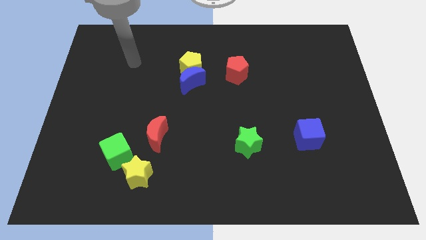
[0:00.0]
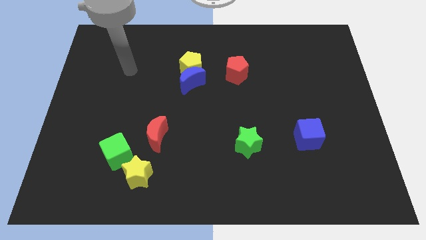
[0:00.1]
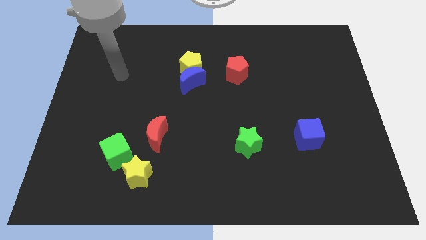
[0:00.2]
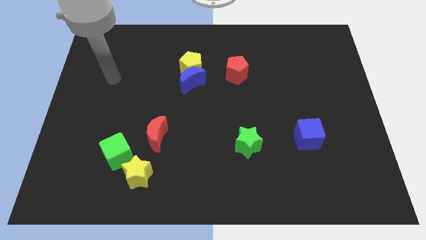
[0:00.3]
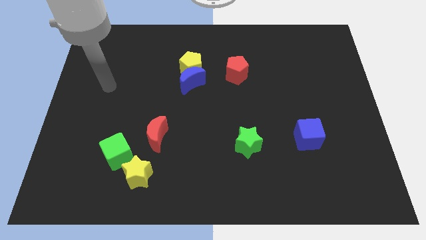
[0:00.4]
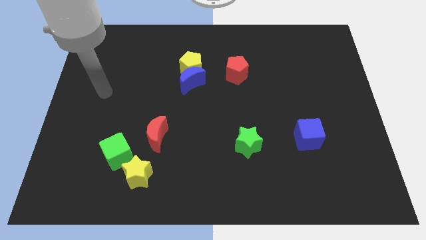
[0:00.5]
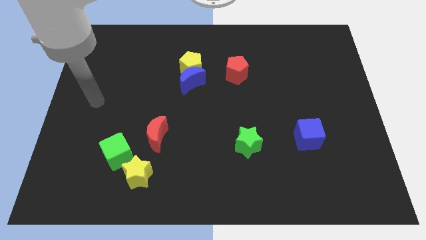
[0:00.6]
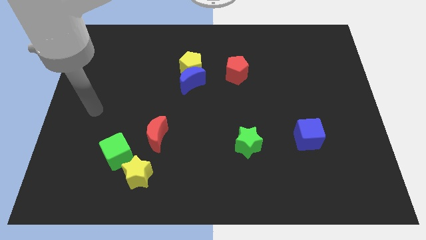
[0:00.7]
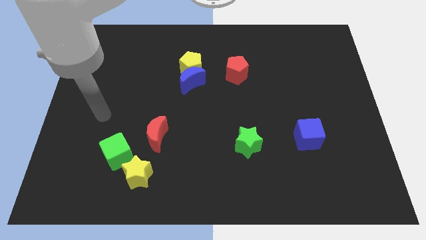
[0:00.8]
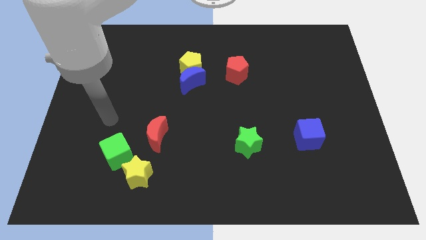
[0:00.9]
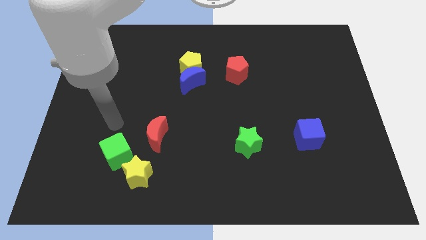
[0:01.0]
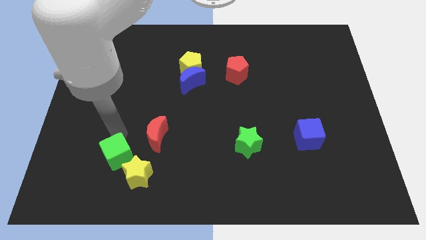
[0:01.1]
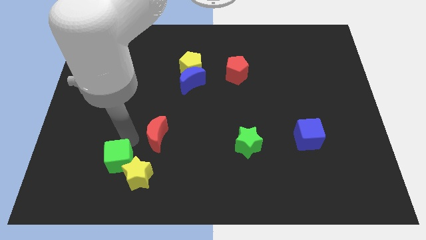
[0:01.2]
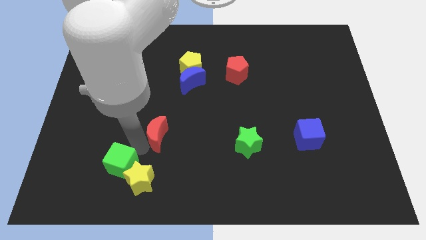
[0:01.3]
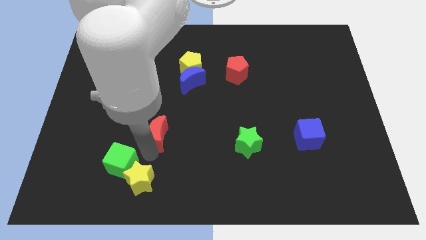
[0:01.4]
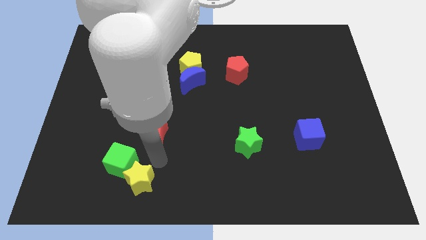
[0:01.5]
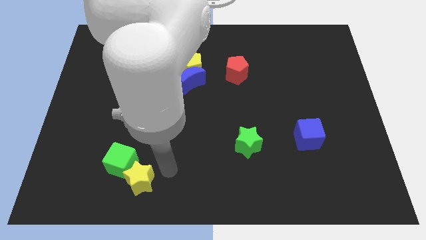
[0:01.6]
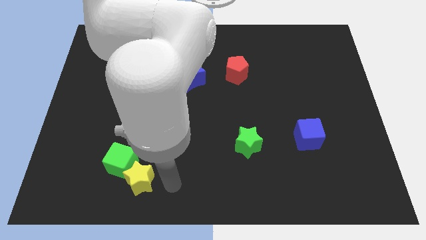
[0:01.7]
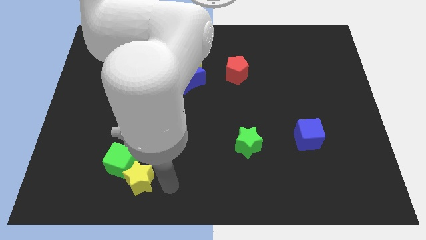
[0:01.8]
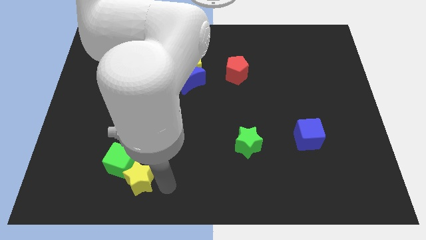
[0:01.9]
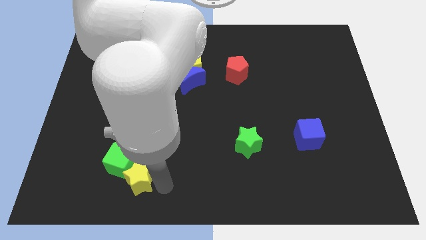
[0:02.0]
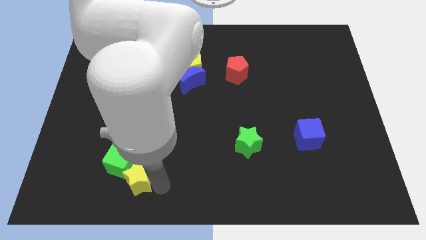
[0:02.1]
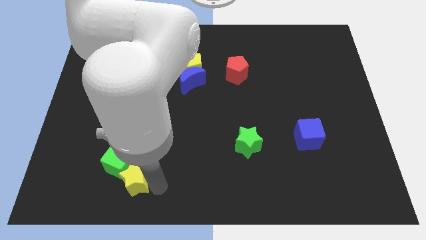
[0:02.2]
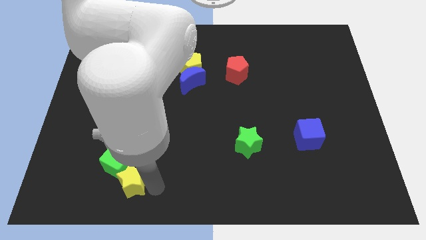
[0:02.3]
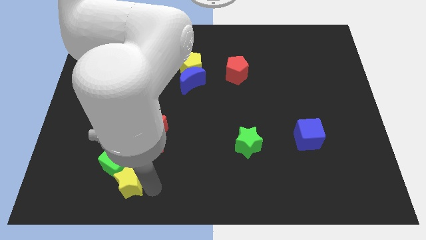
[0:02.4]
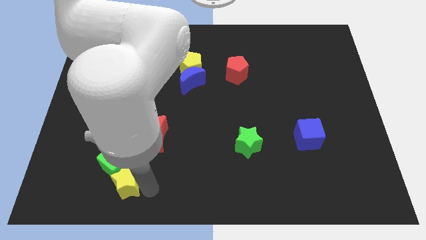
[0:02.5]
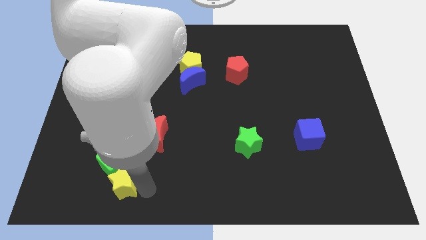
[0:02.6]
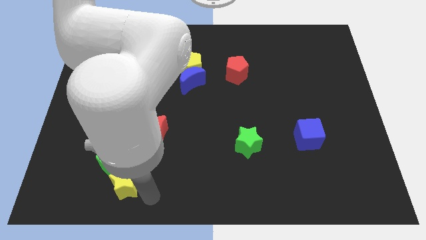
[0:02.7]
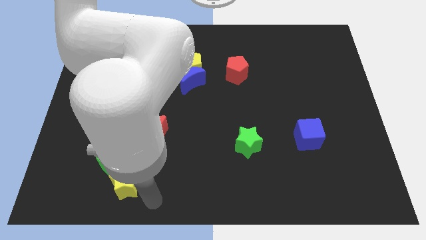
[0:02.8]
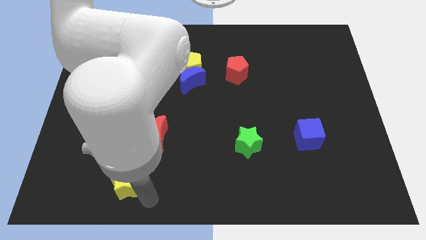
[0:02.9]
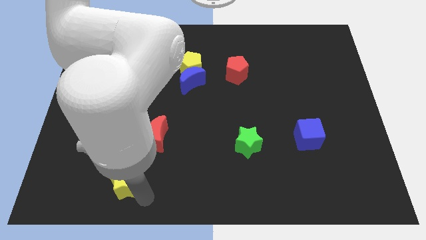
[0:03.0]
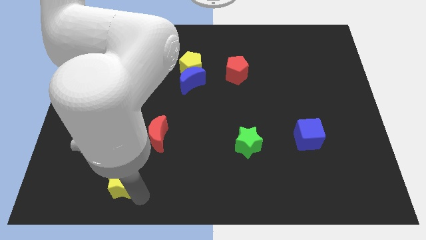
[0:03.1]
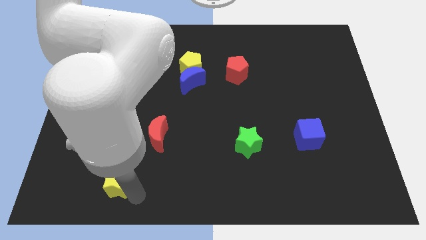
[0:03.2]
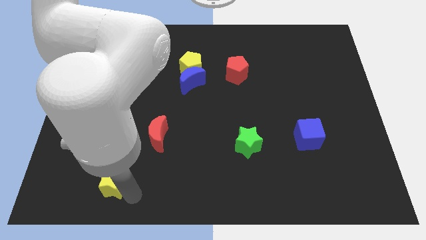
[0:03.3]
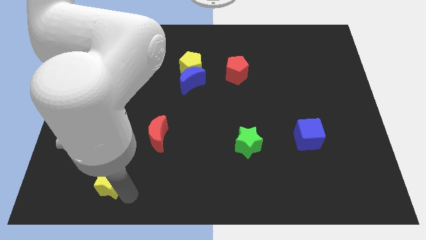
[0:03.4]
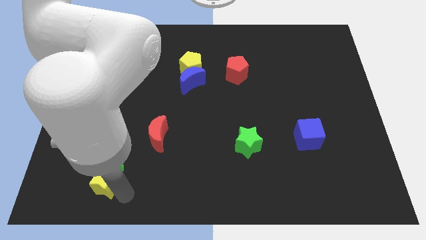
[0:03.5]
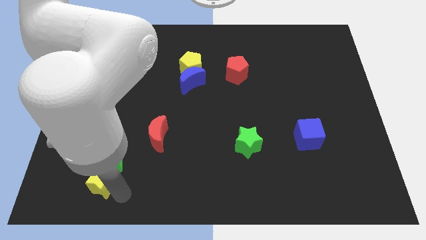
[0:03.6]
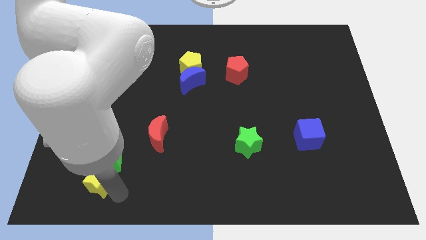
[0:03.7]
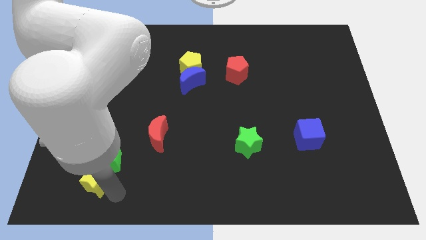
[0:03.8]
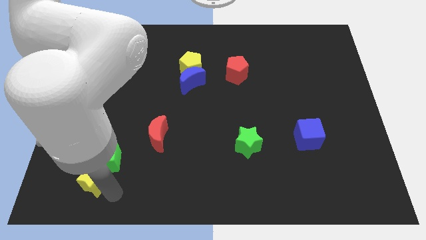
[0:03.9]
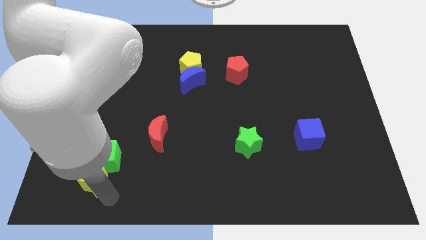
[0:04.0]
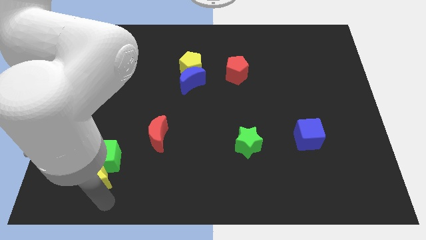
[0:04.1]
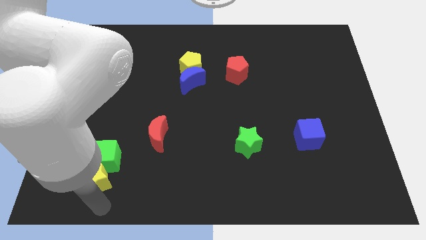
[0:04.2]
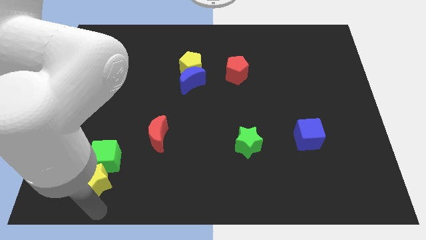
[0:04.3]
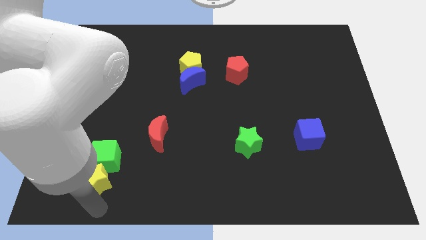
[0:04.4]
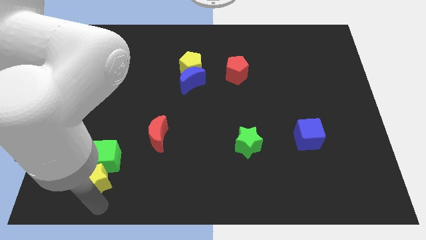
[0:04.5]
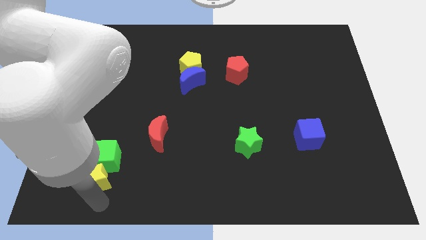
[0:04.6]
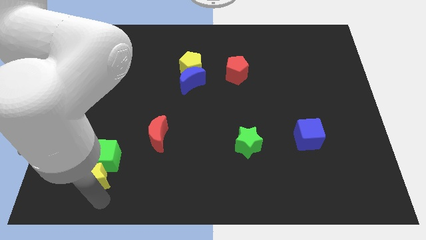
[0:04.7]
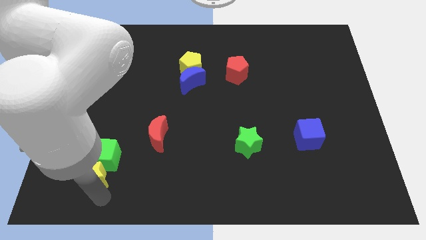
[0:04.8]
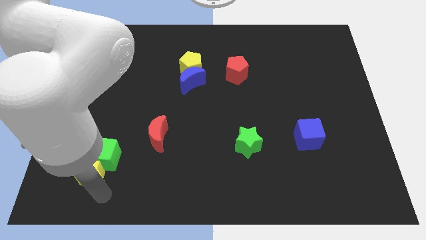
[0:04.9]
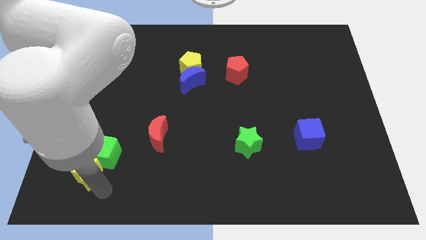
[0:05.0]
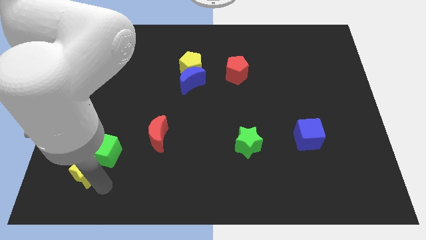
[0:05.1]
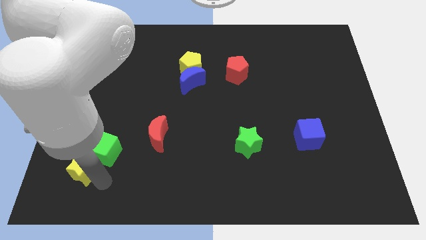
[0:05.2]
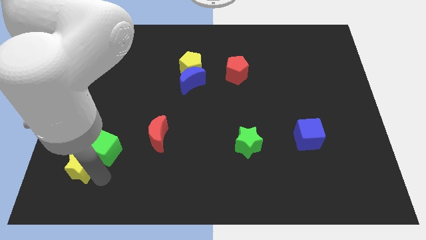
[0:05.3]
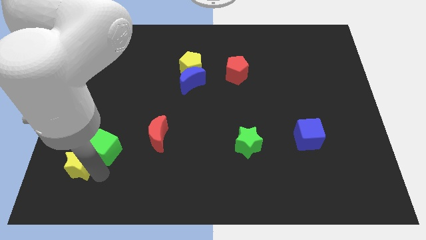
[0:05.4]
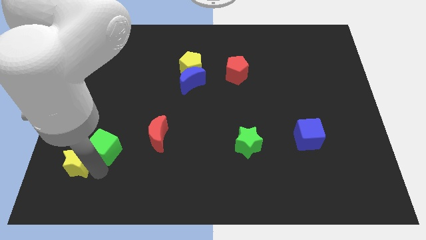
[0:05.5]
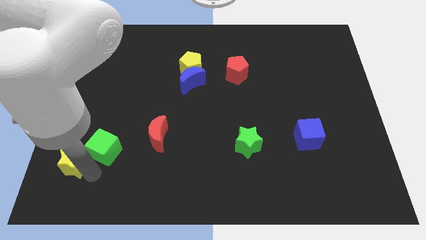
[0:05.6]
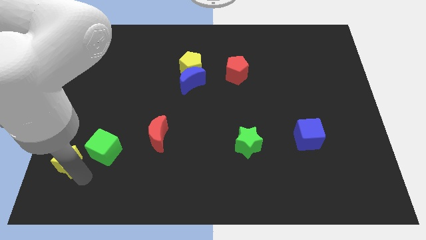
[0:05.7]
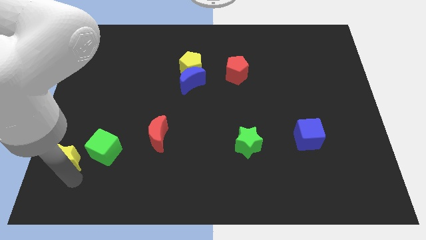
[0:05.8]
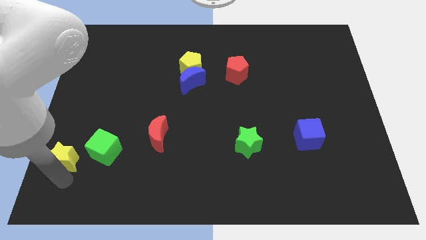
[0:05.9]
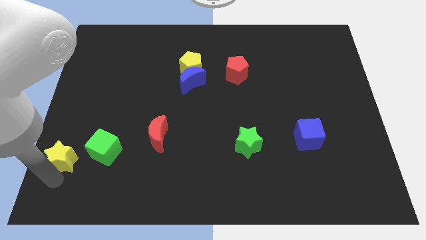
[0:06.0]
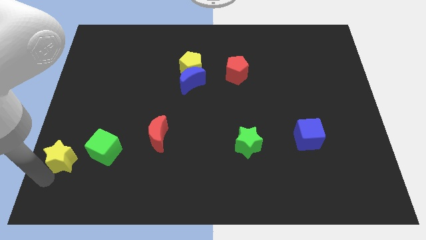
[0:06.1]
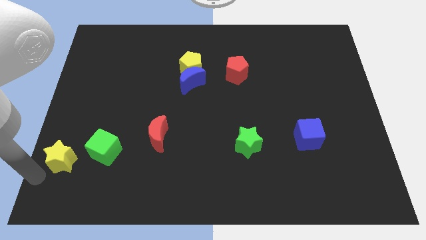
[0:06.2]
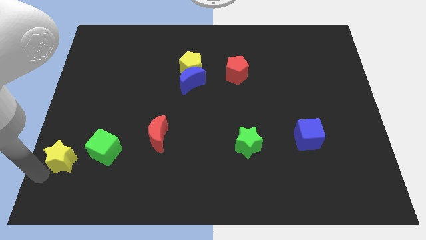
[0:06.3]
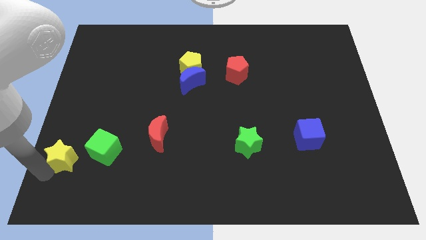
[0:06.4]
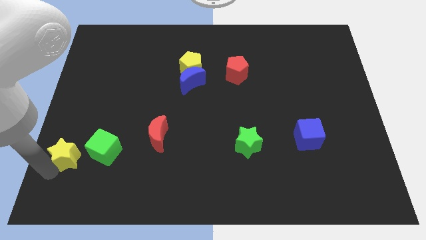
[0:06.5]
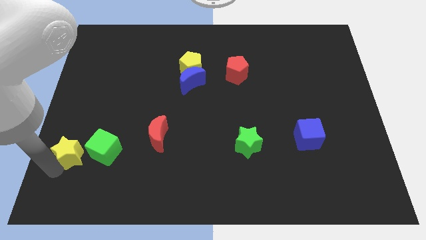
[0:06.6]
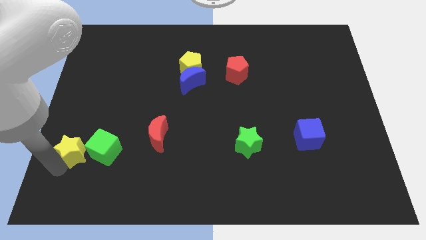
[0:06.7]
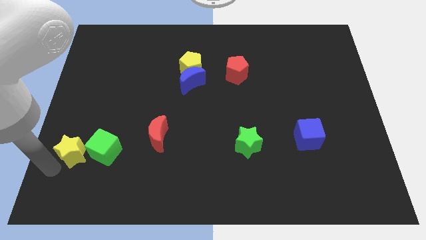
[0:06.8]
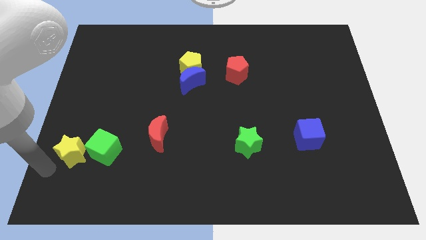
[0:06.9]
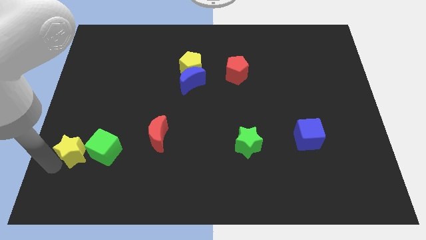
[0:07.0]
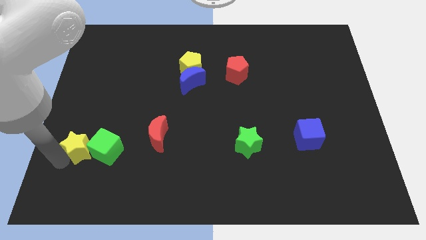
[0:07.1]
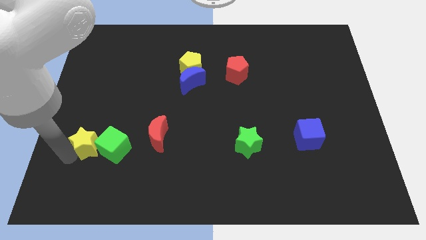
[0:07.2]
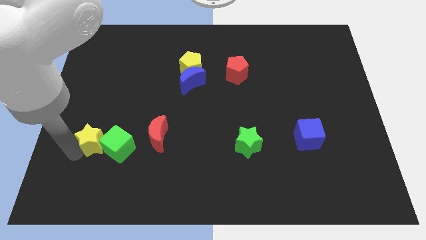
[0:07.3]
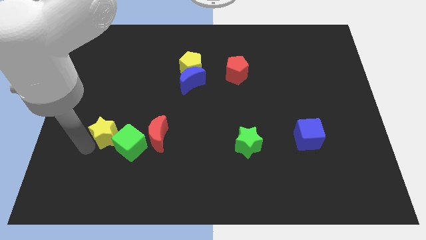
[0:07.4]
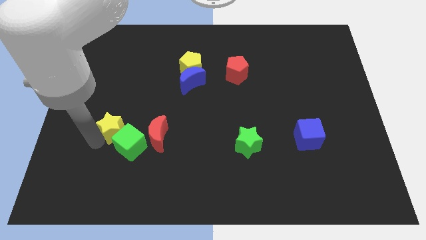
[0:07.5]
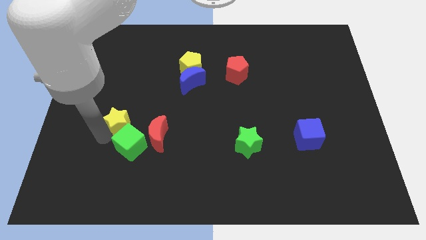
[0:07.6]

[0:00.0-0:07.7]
put the yellow star to the top left of the red moon
